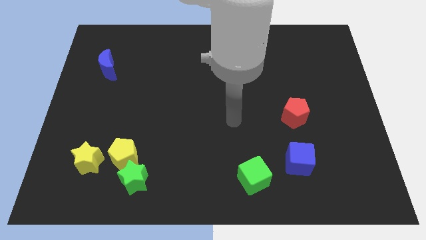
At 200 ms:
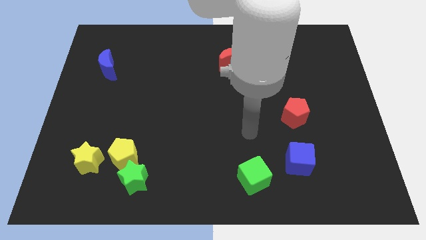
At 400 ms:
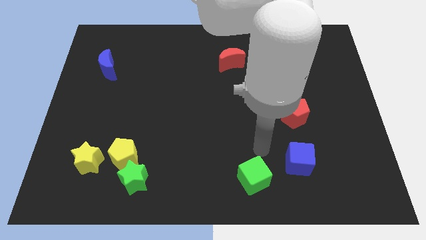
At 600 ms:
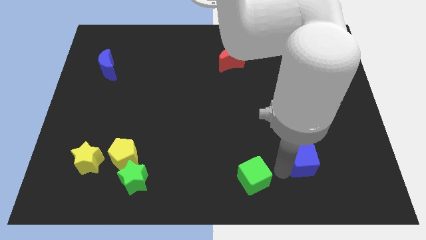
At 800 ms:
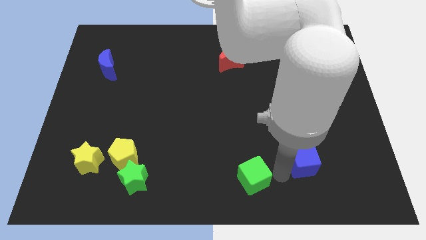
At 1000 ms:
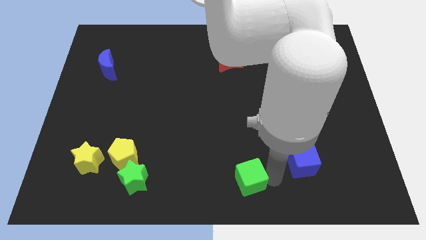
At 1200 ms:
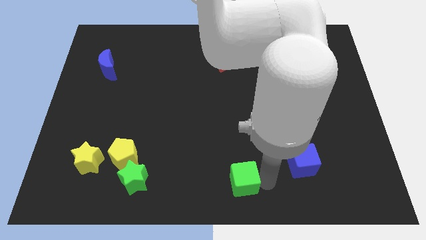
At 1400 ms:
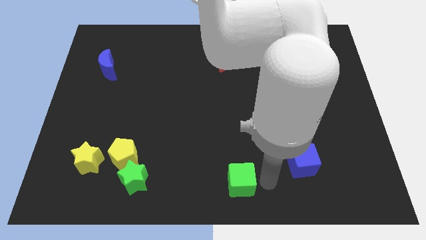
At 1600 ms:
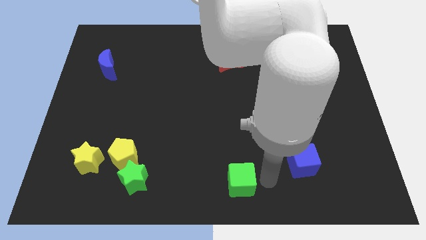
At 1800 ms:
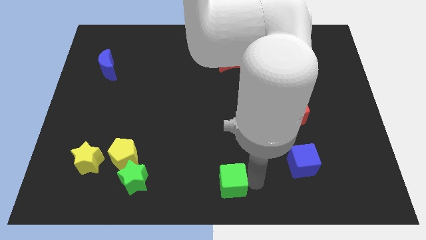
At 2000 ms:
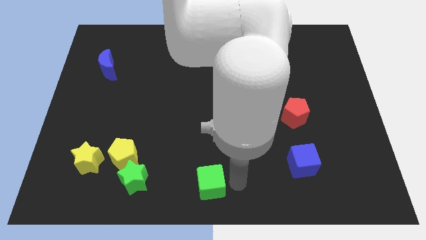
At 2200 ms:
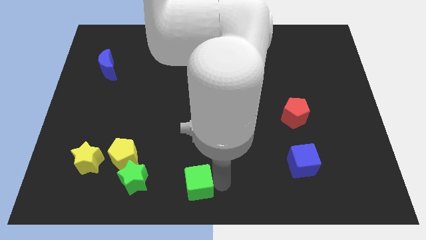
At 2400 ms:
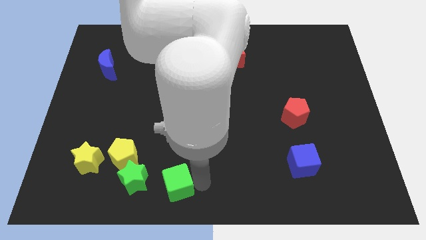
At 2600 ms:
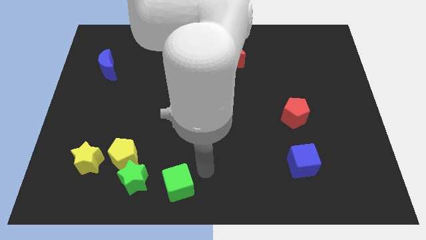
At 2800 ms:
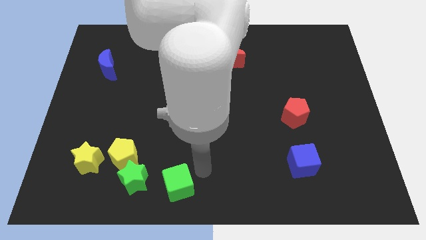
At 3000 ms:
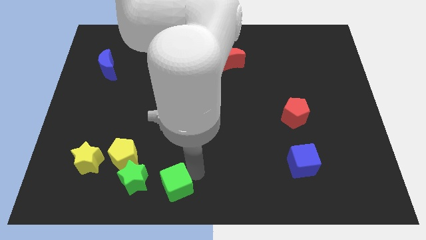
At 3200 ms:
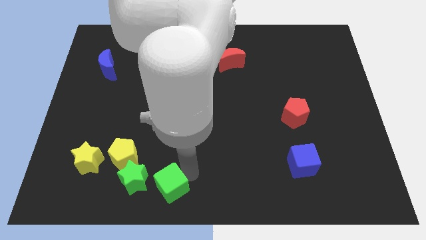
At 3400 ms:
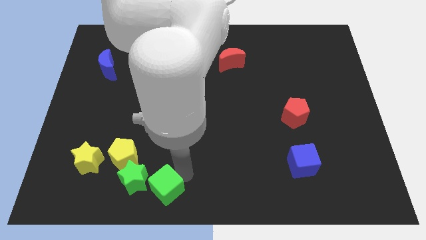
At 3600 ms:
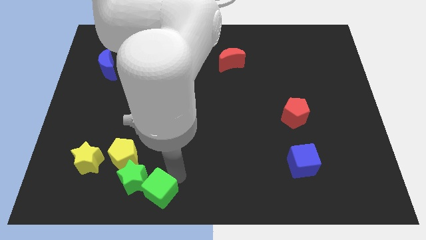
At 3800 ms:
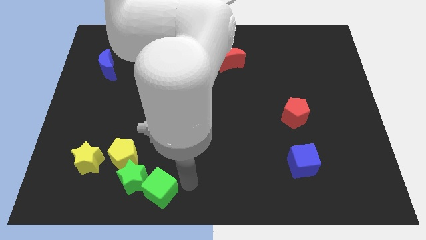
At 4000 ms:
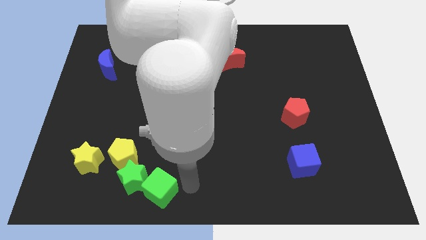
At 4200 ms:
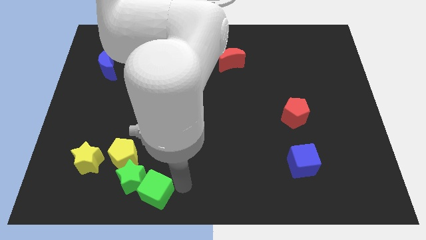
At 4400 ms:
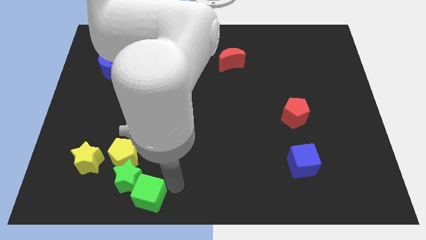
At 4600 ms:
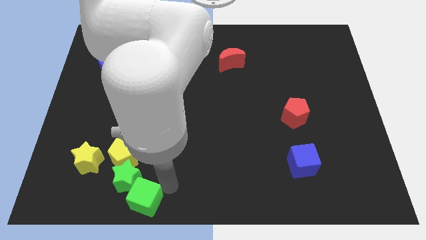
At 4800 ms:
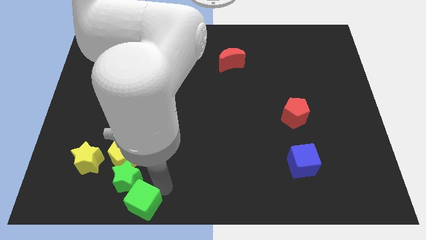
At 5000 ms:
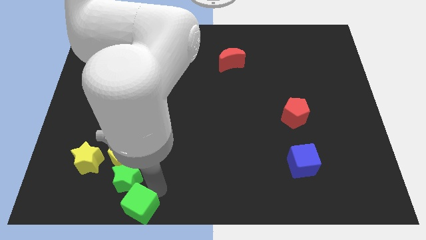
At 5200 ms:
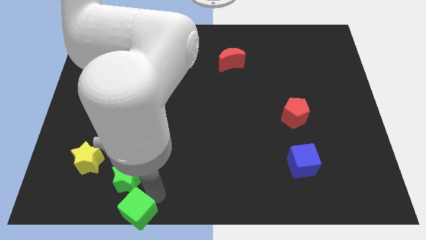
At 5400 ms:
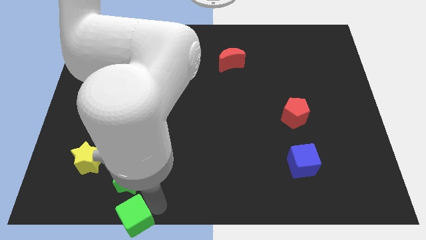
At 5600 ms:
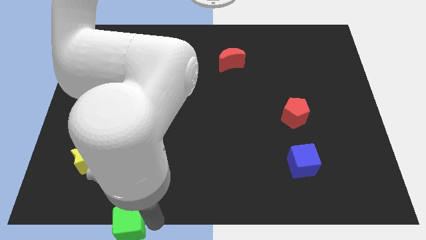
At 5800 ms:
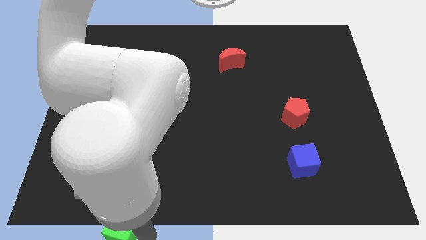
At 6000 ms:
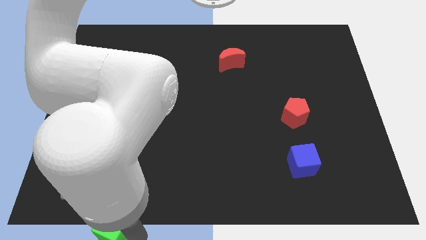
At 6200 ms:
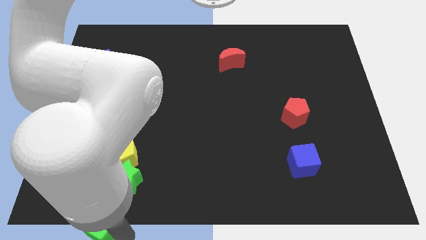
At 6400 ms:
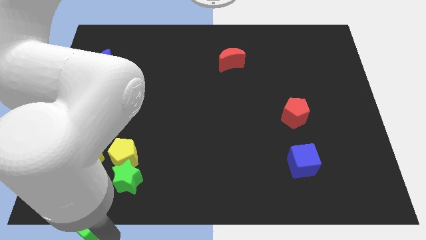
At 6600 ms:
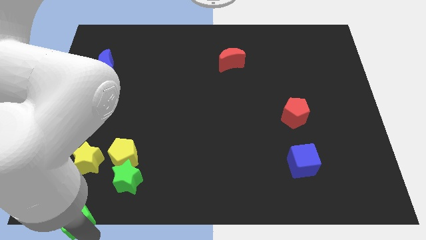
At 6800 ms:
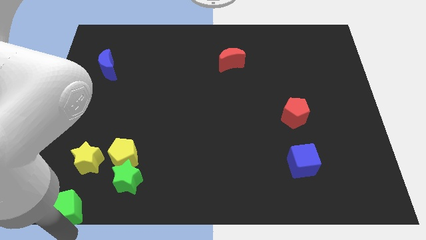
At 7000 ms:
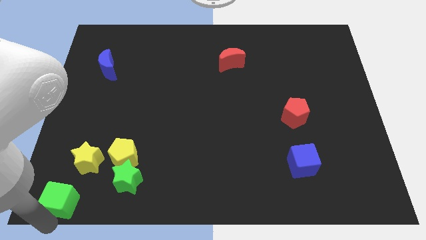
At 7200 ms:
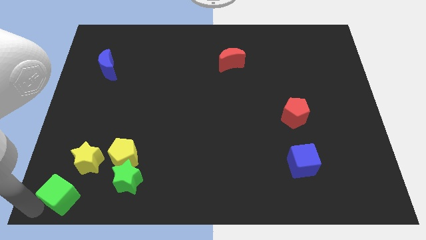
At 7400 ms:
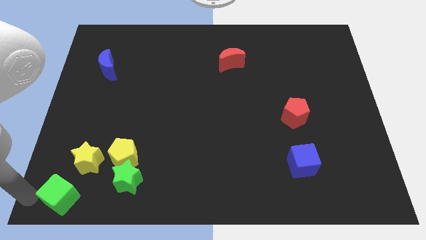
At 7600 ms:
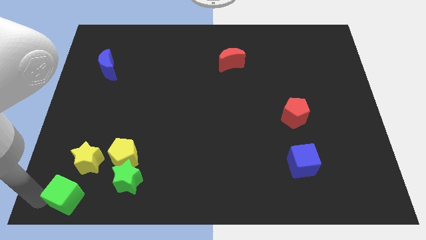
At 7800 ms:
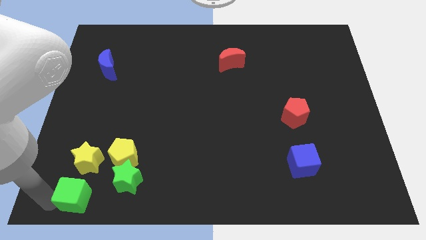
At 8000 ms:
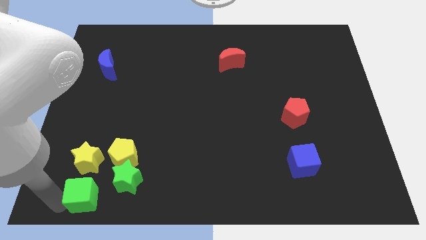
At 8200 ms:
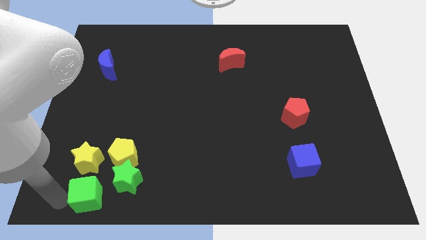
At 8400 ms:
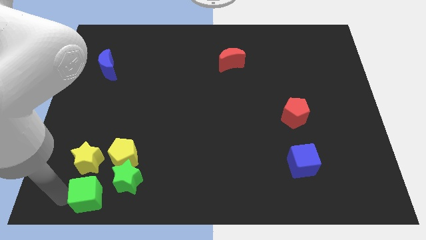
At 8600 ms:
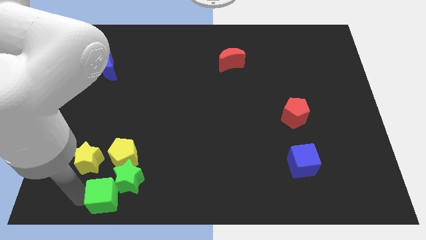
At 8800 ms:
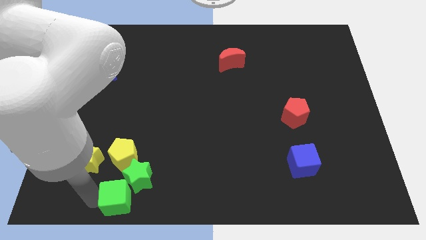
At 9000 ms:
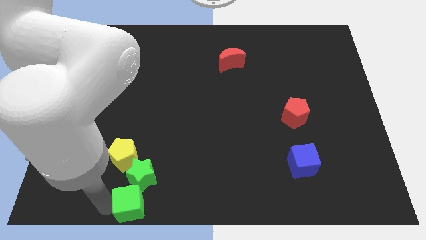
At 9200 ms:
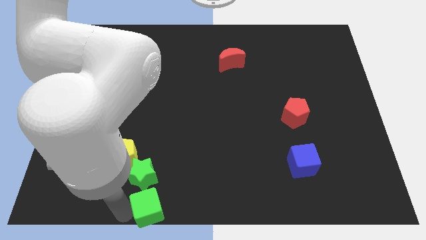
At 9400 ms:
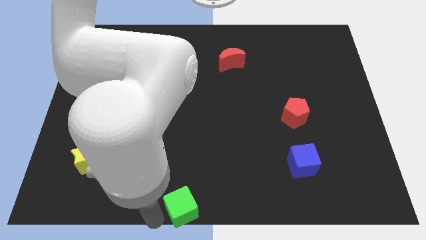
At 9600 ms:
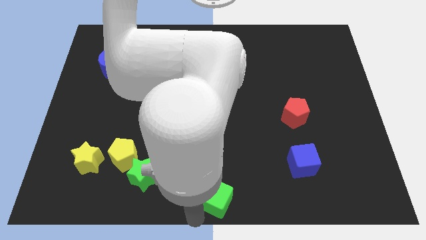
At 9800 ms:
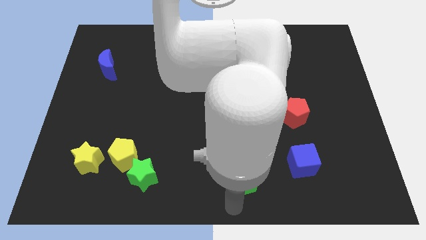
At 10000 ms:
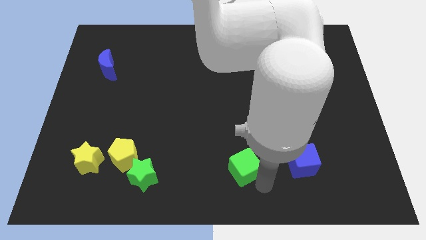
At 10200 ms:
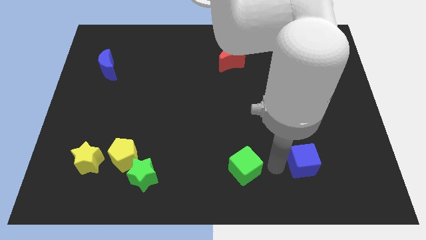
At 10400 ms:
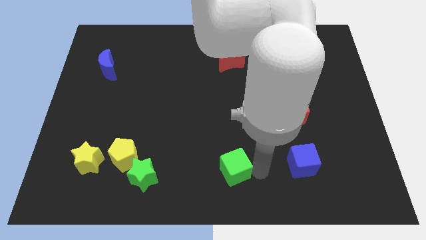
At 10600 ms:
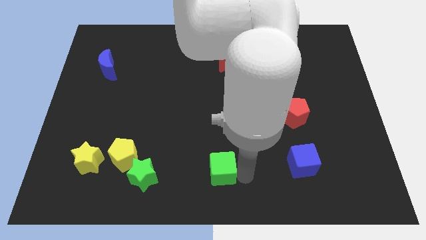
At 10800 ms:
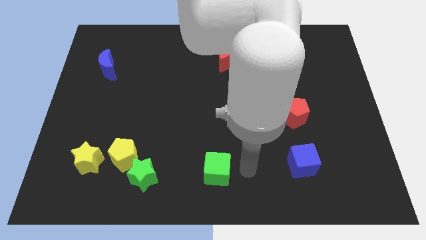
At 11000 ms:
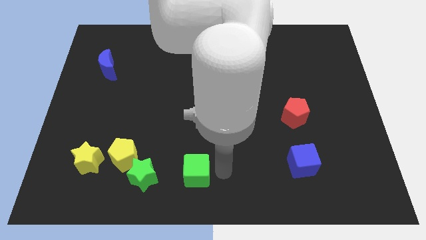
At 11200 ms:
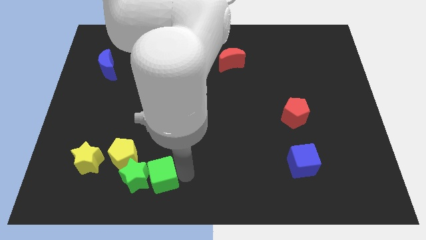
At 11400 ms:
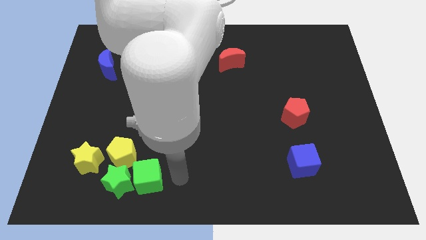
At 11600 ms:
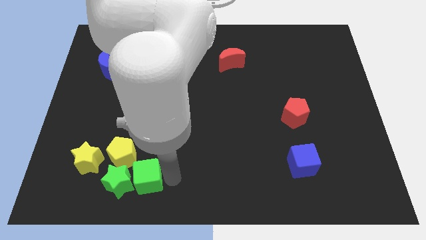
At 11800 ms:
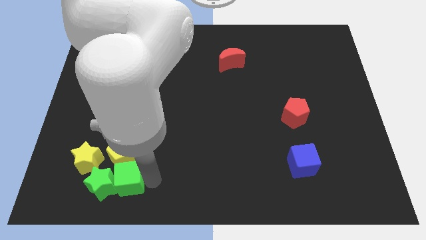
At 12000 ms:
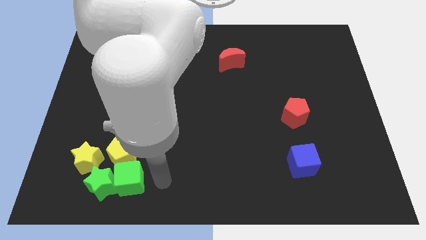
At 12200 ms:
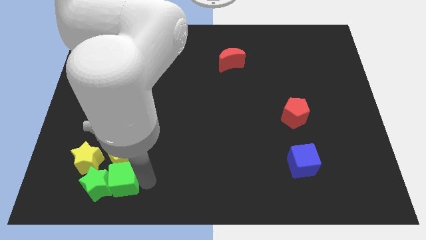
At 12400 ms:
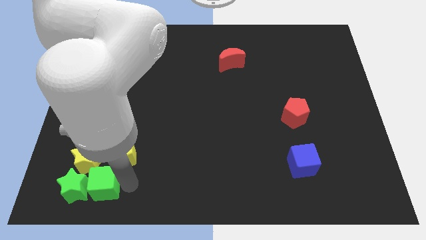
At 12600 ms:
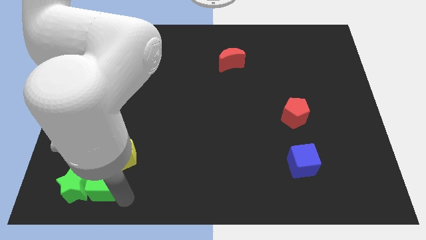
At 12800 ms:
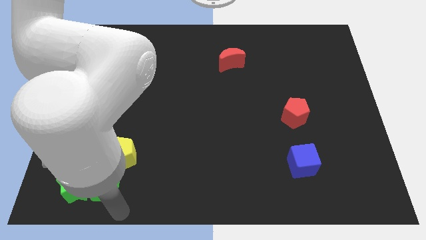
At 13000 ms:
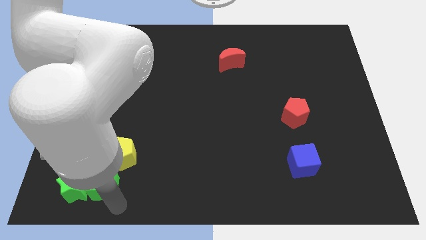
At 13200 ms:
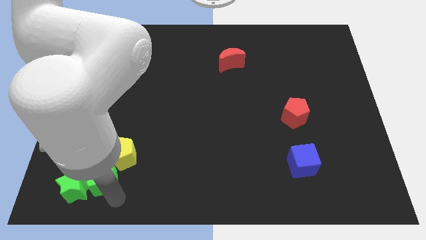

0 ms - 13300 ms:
move the green cube next to the yellow star
